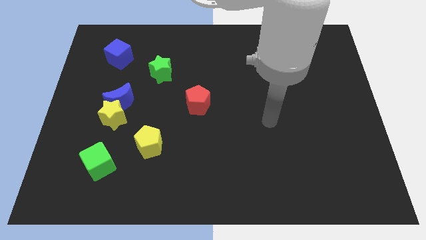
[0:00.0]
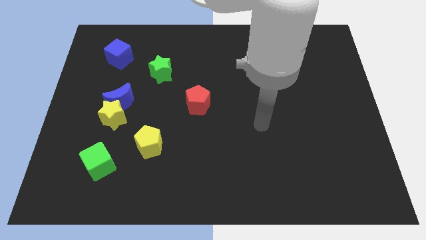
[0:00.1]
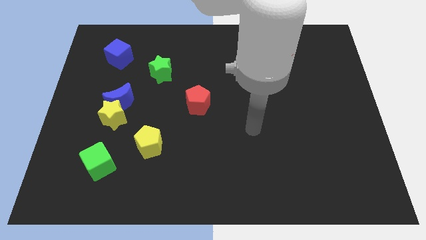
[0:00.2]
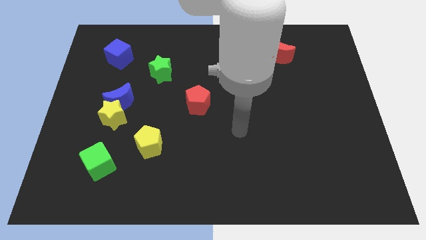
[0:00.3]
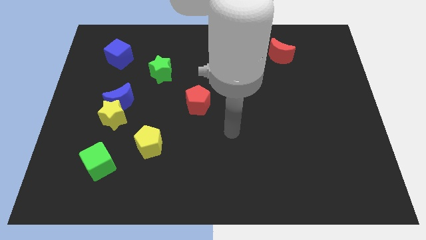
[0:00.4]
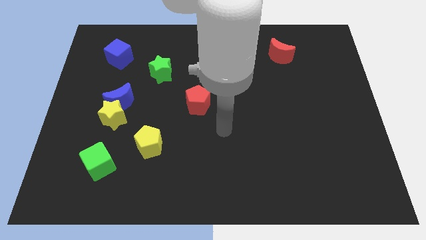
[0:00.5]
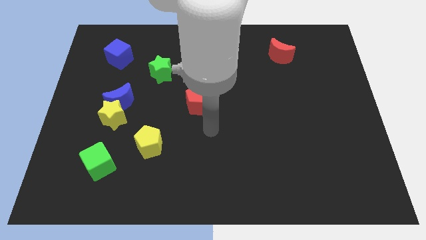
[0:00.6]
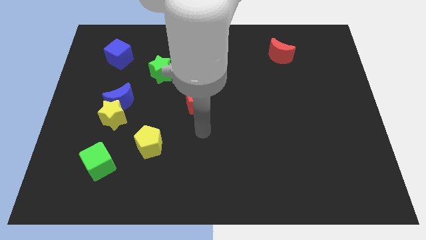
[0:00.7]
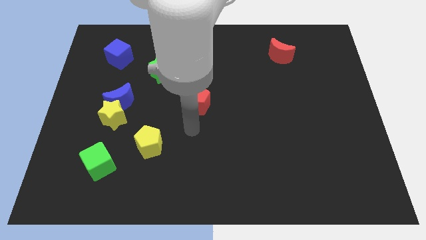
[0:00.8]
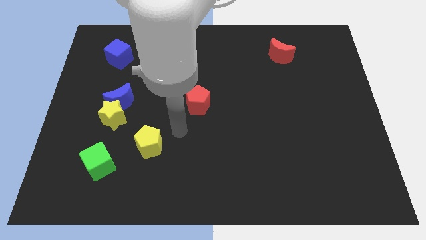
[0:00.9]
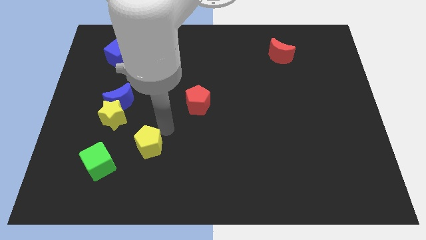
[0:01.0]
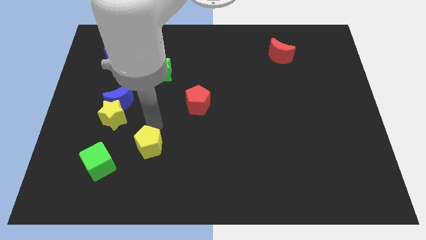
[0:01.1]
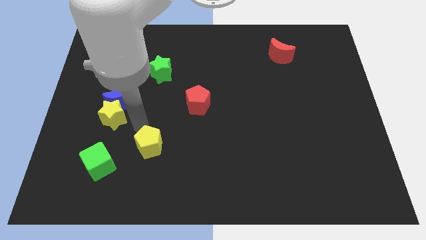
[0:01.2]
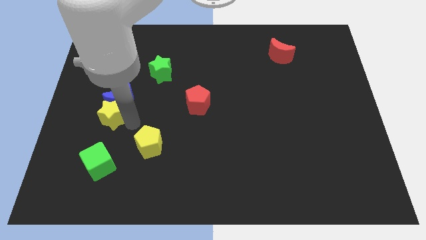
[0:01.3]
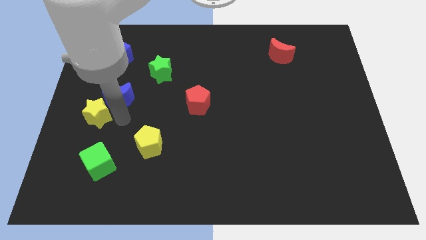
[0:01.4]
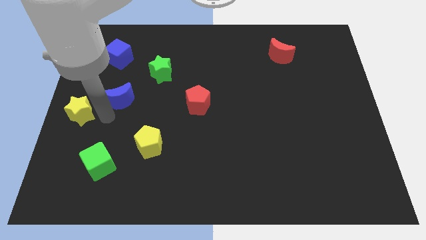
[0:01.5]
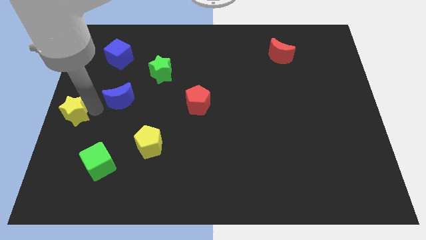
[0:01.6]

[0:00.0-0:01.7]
pull the blue moon apart from the yellow star

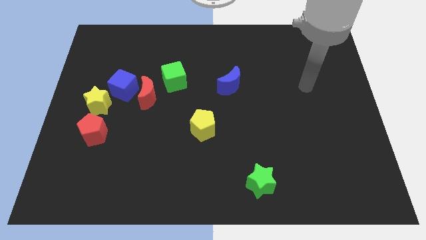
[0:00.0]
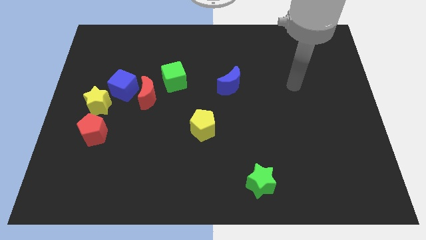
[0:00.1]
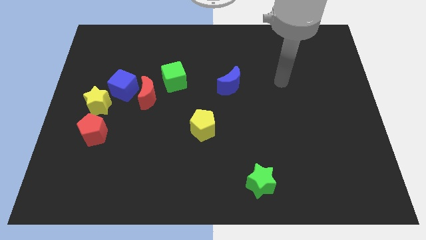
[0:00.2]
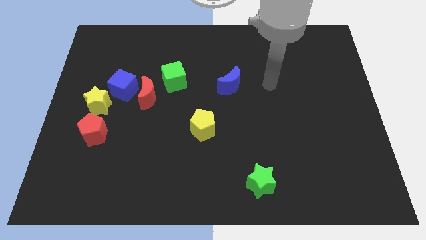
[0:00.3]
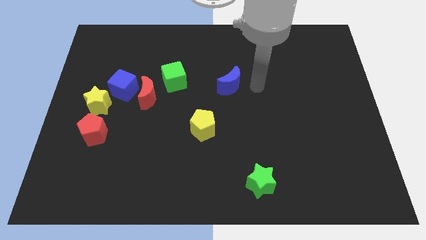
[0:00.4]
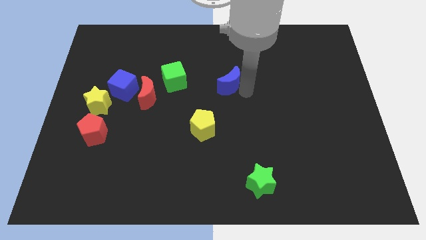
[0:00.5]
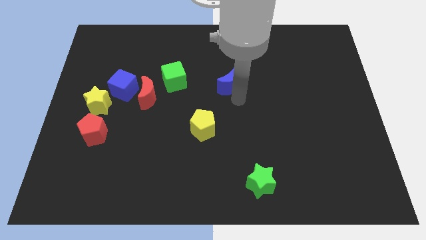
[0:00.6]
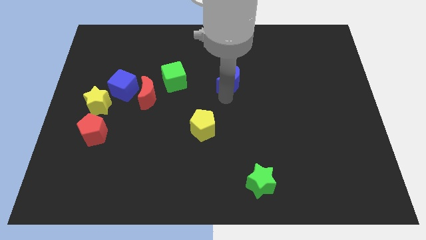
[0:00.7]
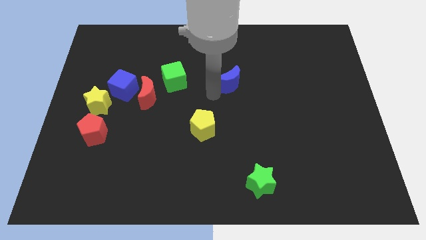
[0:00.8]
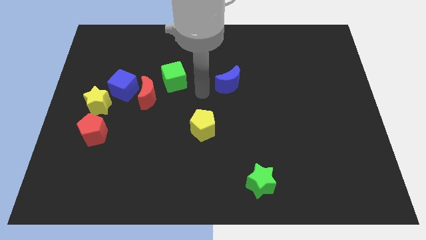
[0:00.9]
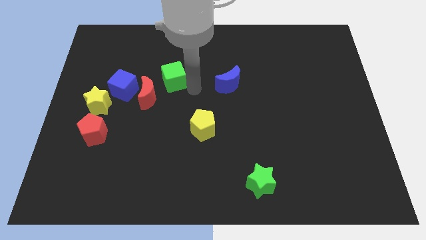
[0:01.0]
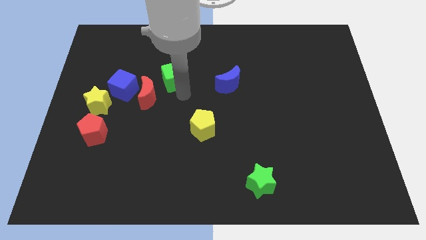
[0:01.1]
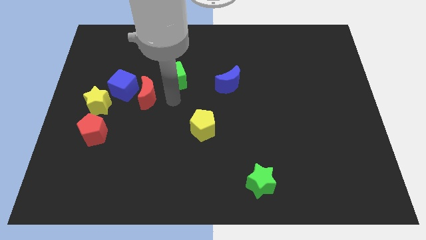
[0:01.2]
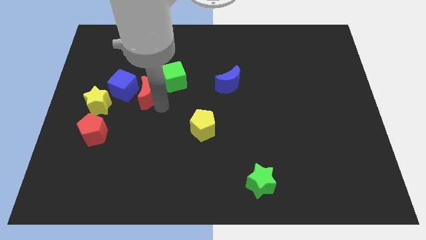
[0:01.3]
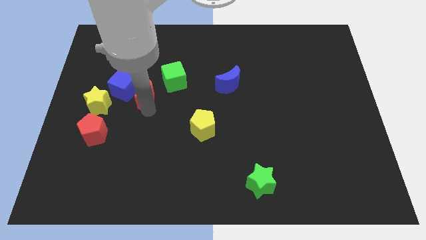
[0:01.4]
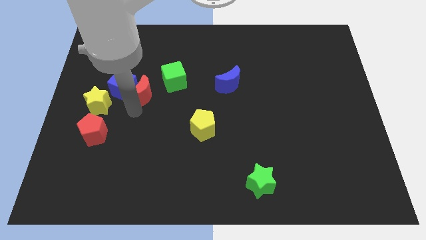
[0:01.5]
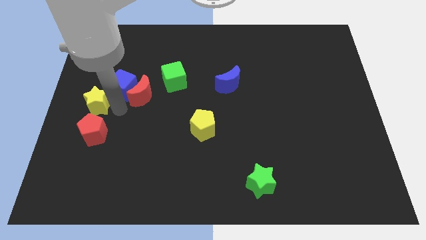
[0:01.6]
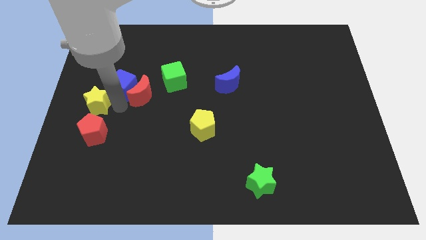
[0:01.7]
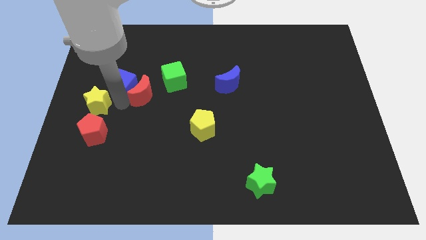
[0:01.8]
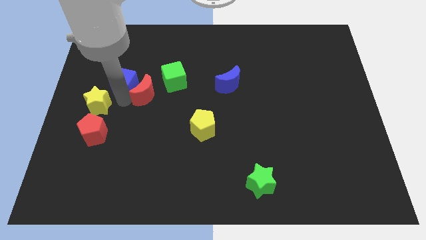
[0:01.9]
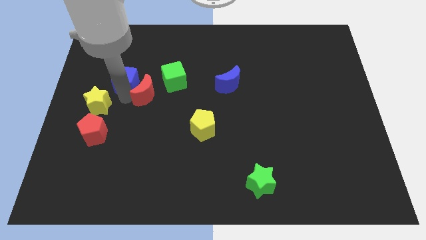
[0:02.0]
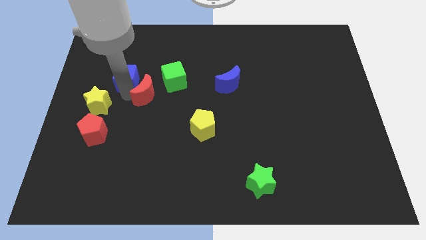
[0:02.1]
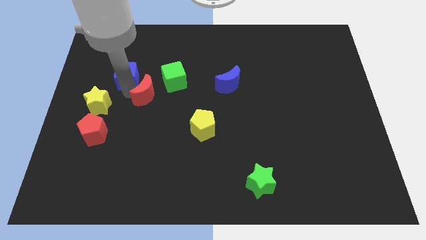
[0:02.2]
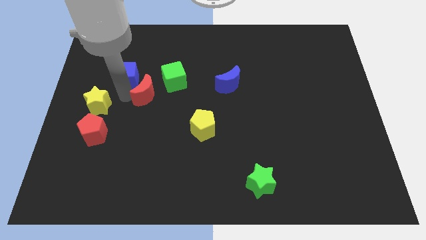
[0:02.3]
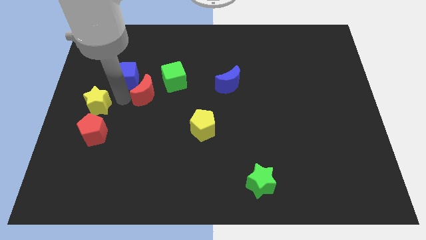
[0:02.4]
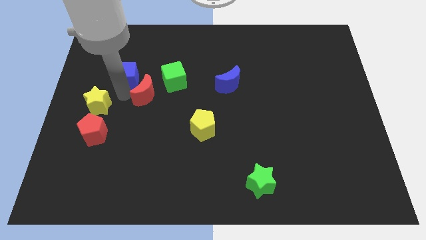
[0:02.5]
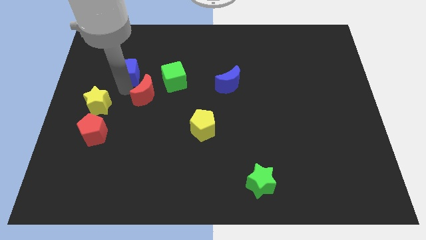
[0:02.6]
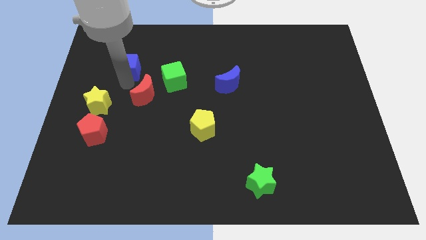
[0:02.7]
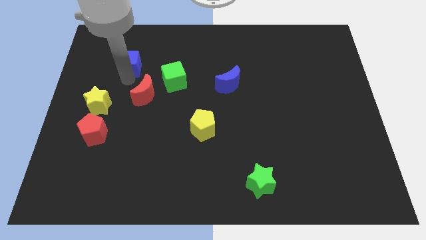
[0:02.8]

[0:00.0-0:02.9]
move the blue cube away from the red moon and yellow star

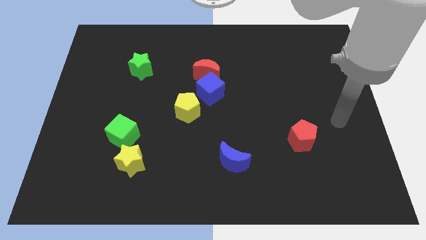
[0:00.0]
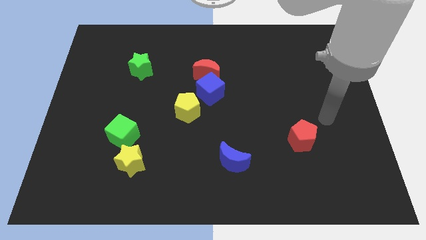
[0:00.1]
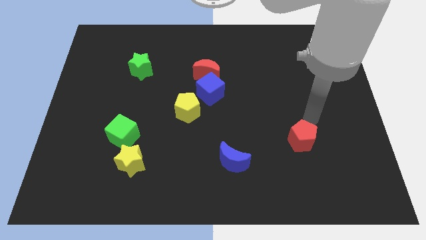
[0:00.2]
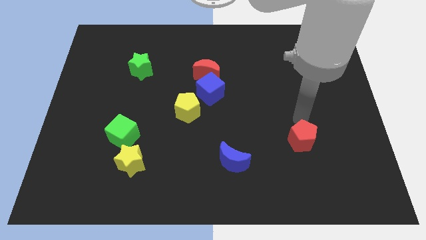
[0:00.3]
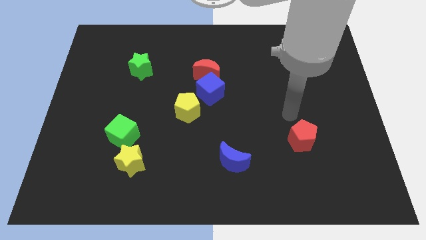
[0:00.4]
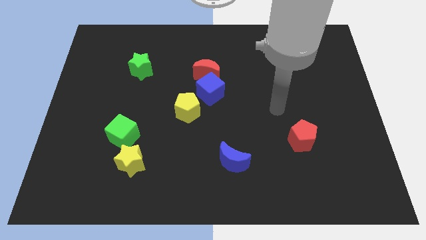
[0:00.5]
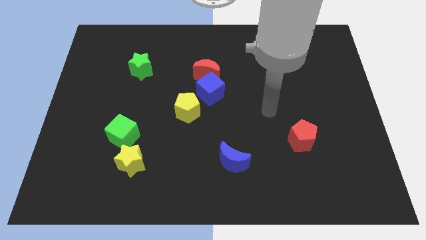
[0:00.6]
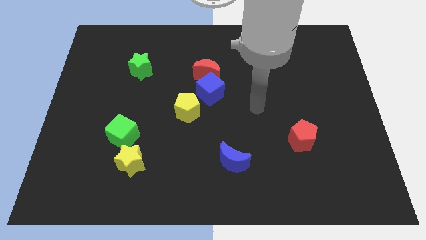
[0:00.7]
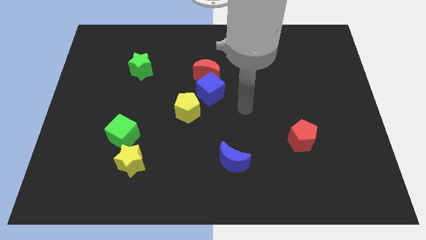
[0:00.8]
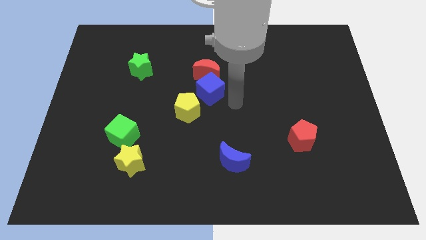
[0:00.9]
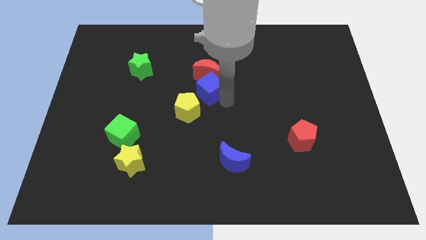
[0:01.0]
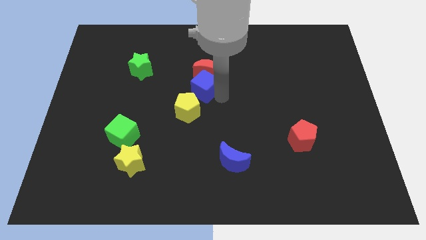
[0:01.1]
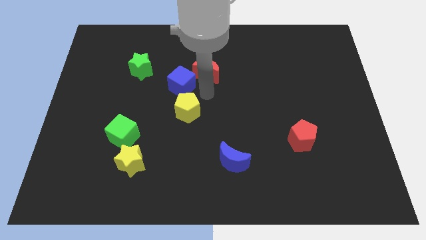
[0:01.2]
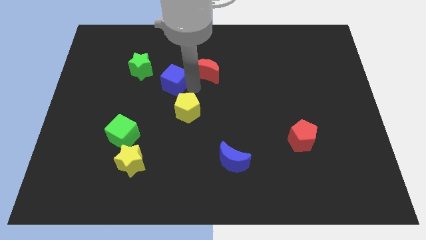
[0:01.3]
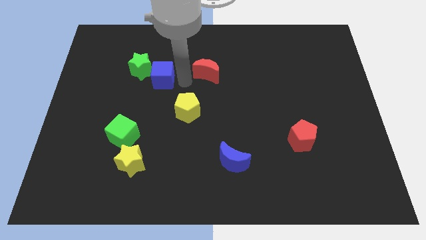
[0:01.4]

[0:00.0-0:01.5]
pull the red moon apart from the blue cube

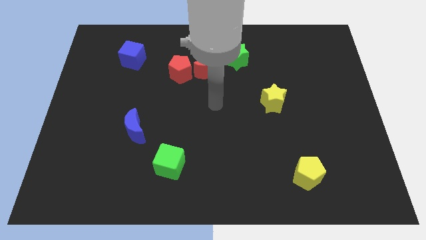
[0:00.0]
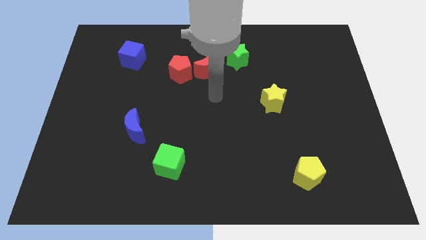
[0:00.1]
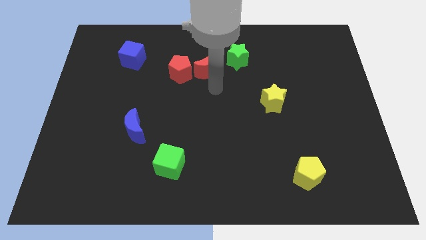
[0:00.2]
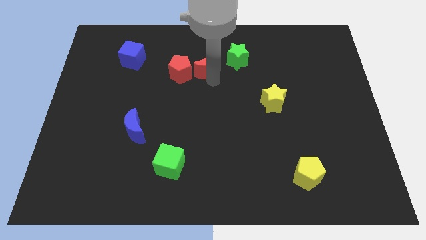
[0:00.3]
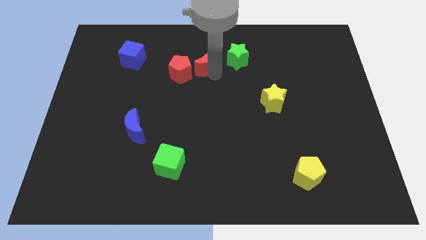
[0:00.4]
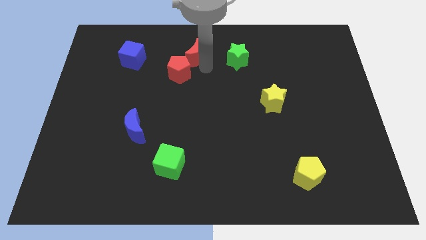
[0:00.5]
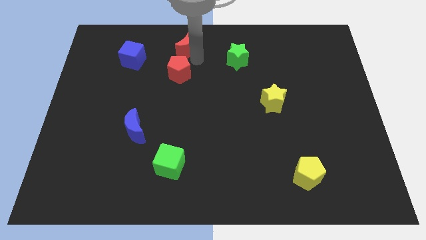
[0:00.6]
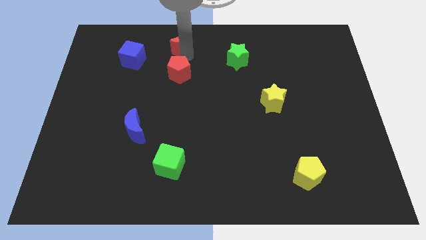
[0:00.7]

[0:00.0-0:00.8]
pull the red pentagon apart from the red moon

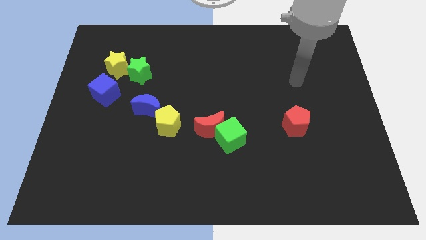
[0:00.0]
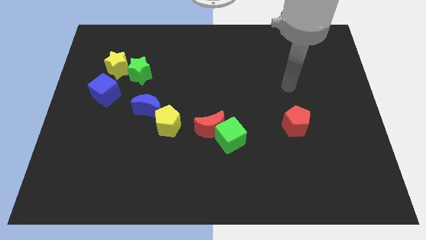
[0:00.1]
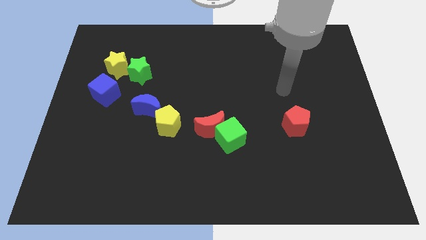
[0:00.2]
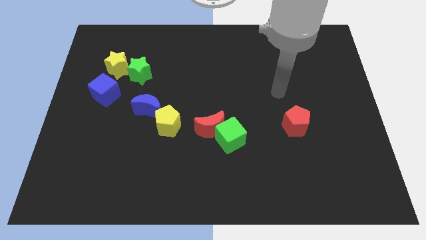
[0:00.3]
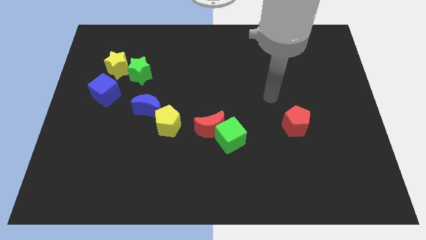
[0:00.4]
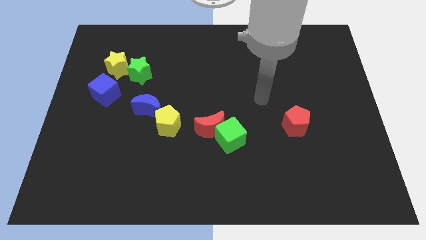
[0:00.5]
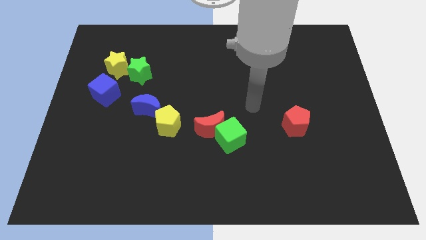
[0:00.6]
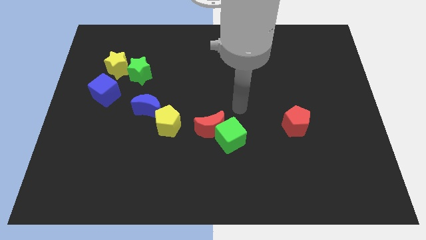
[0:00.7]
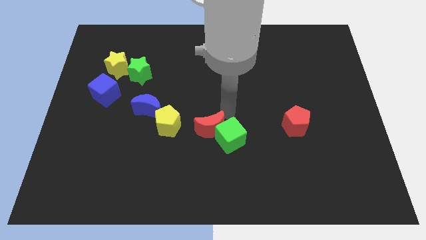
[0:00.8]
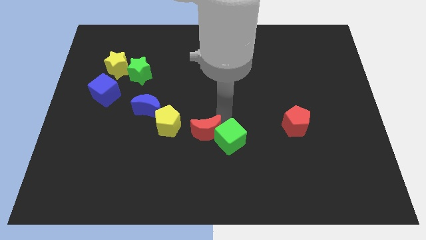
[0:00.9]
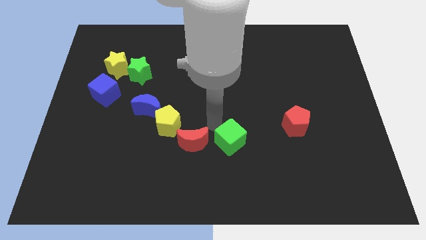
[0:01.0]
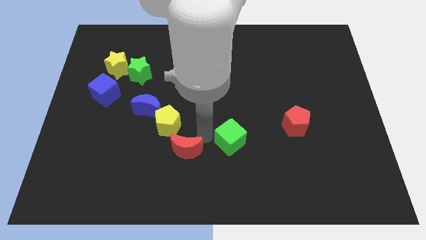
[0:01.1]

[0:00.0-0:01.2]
pull the green cube apart from the red moon

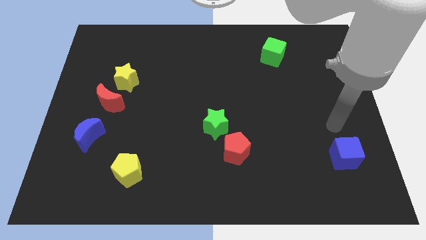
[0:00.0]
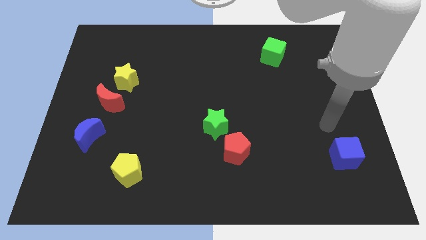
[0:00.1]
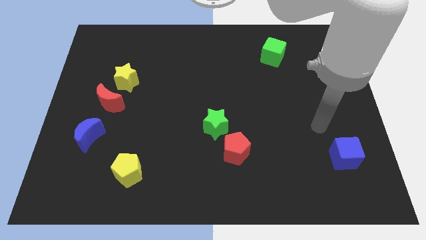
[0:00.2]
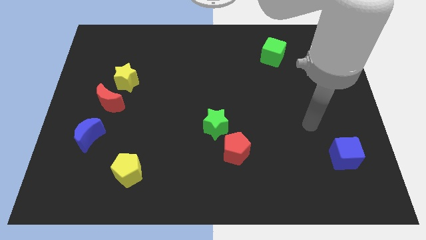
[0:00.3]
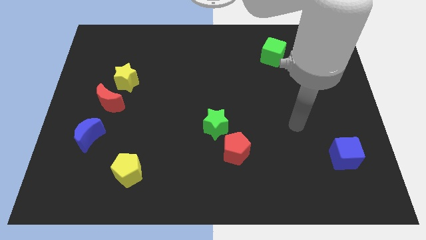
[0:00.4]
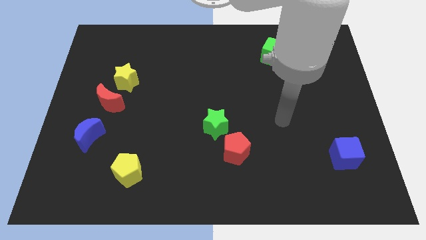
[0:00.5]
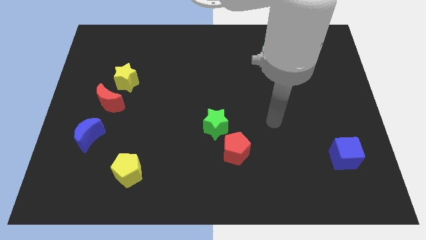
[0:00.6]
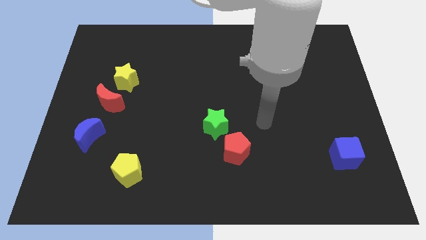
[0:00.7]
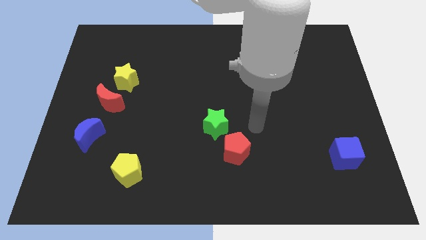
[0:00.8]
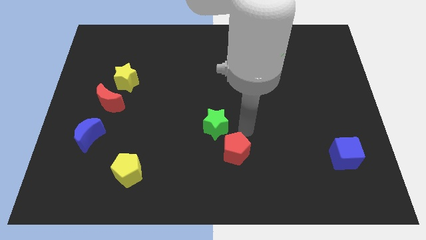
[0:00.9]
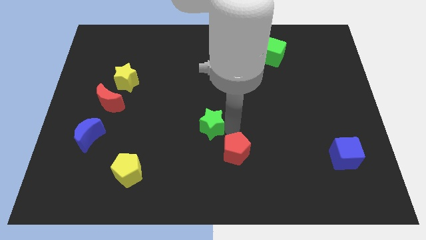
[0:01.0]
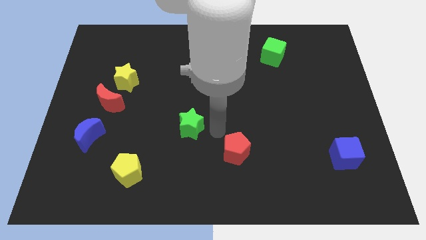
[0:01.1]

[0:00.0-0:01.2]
separate the red pentagon from the green star
